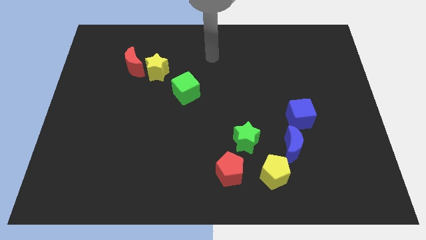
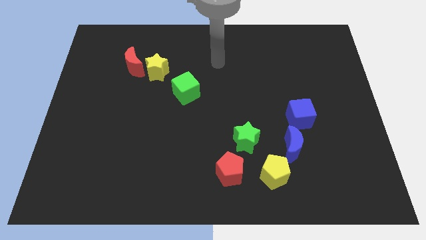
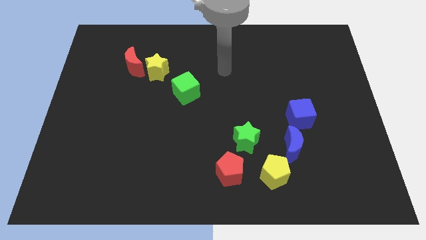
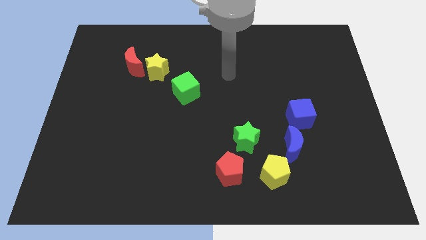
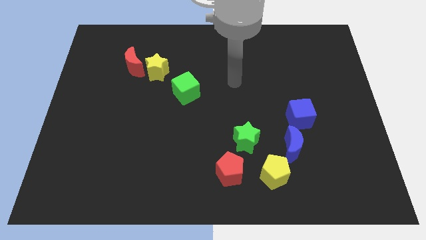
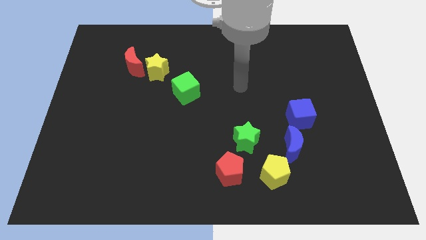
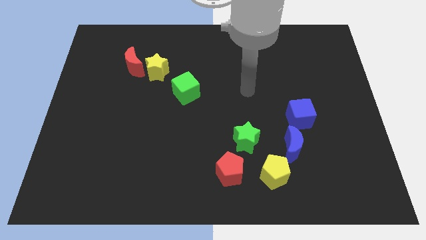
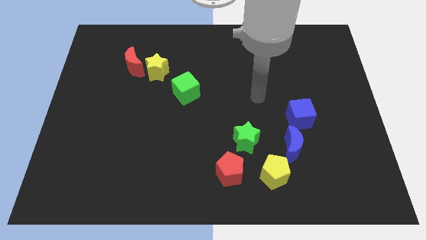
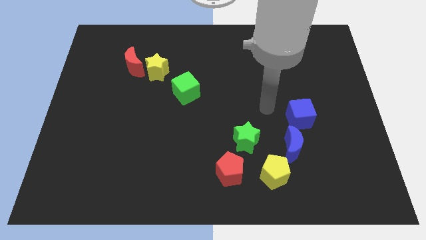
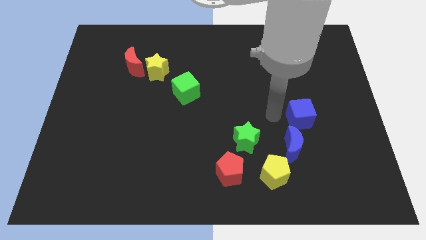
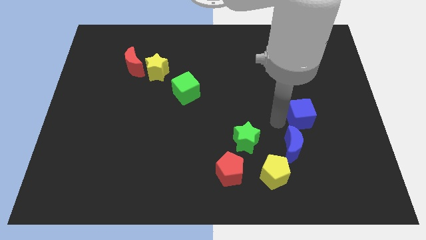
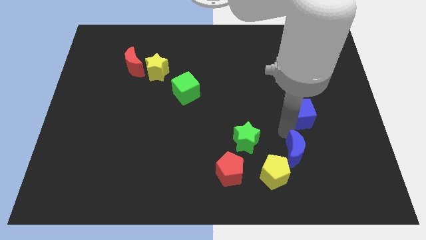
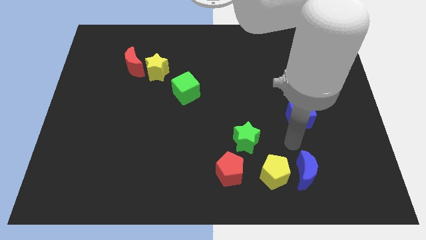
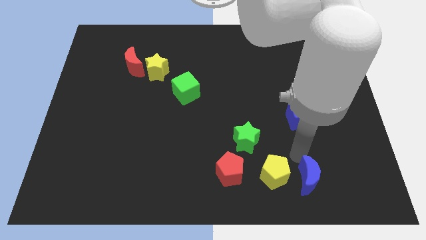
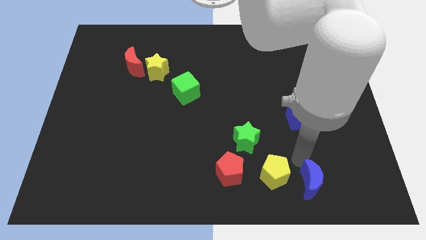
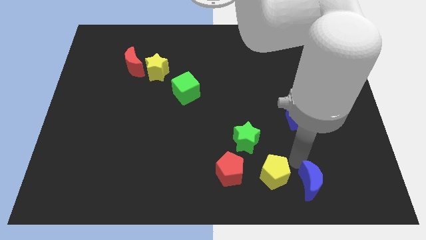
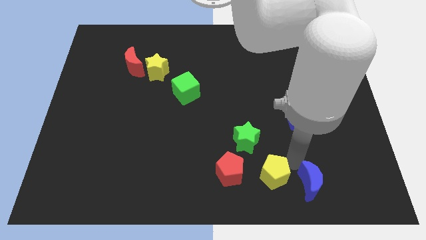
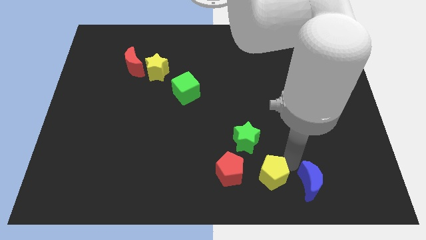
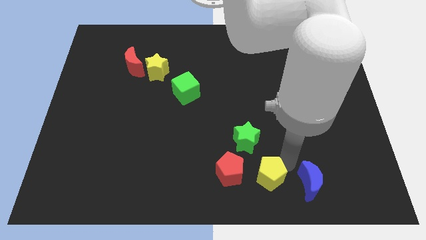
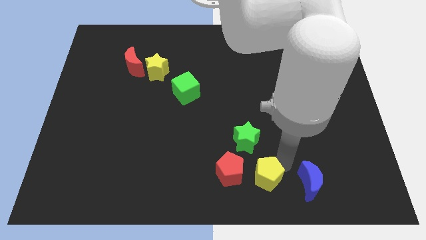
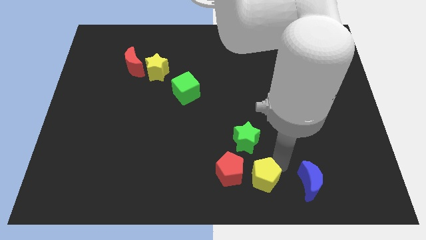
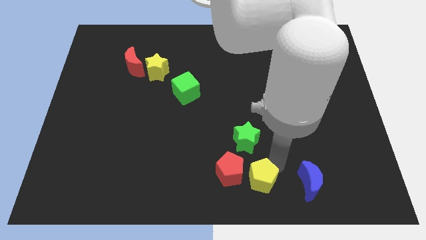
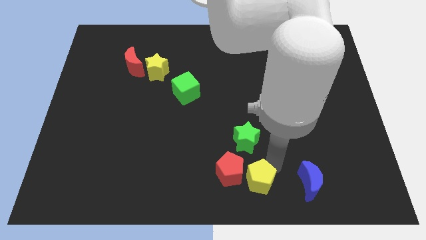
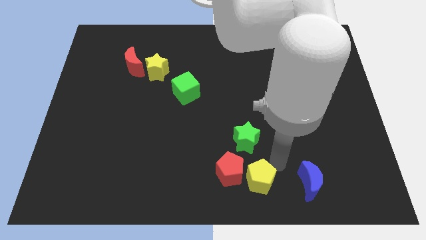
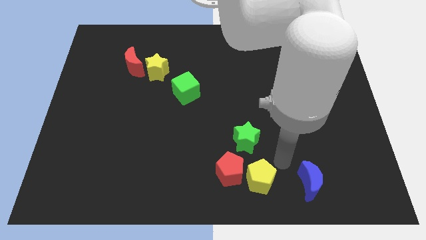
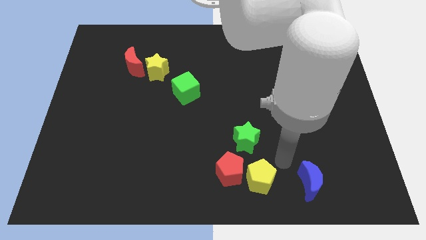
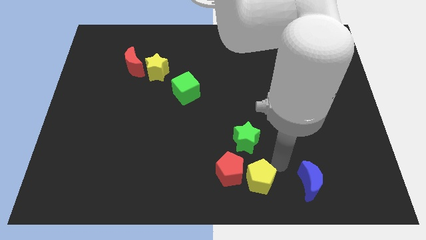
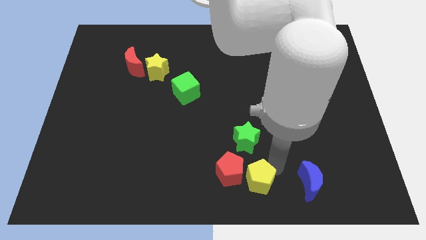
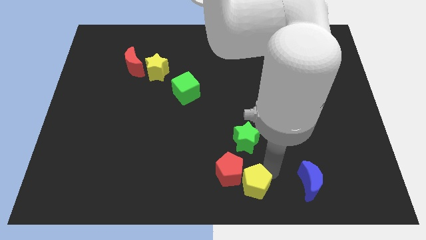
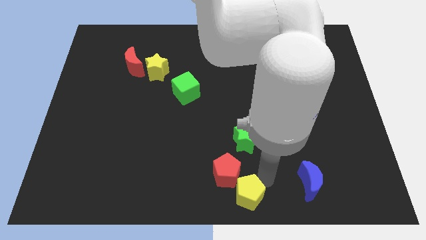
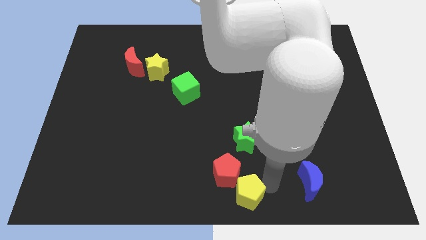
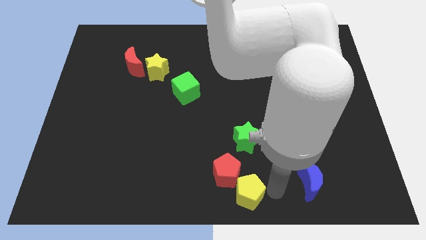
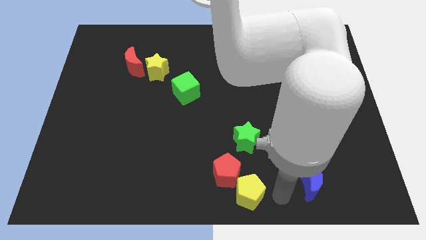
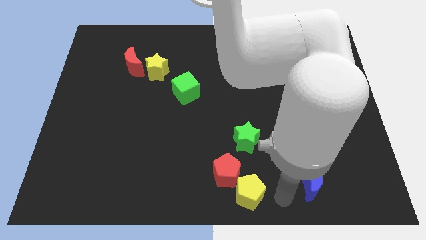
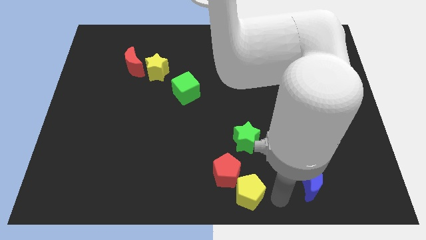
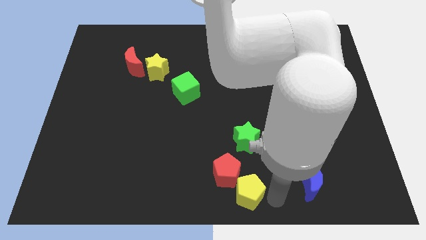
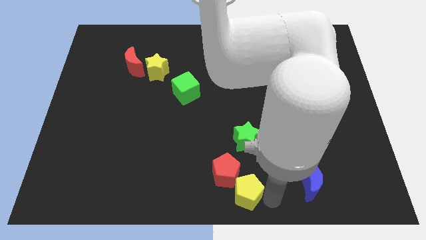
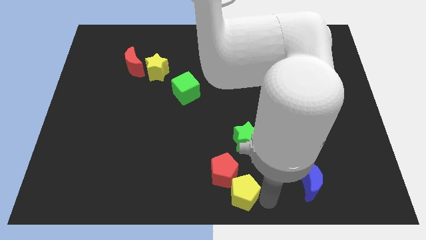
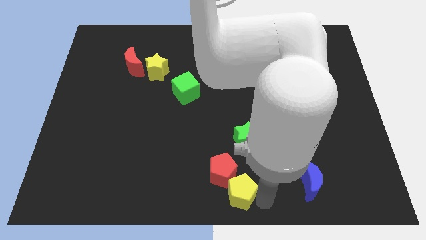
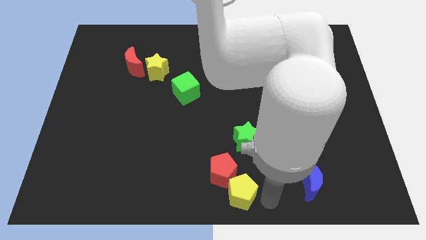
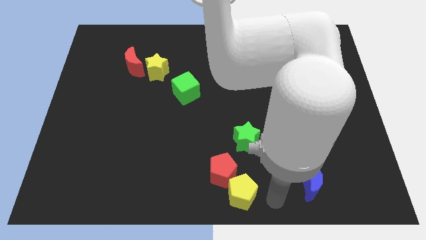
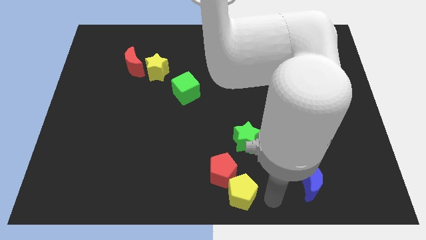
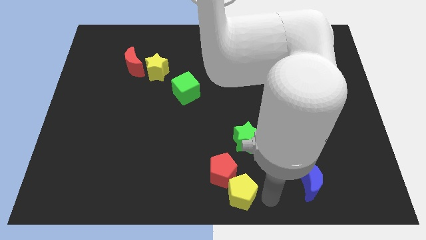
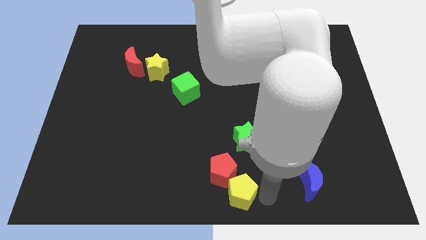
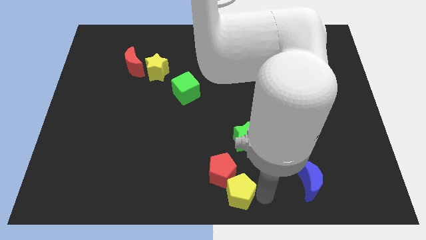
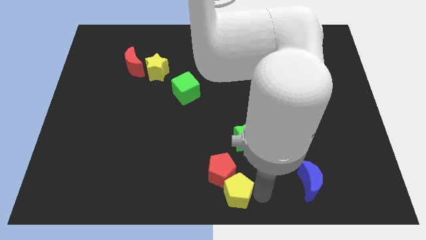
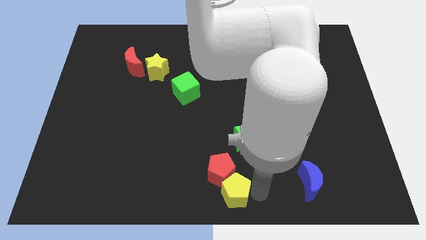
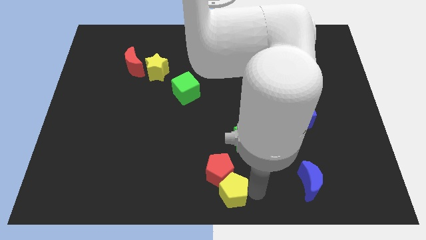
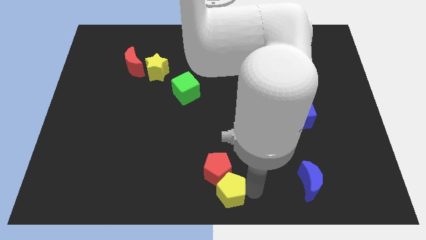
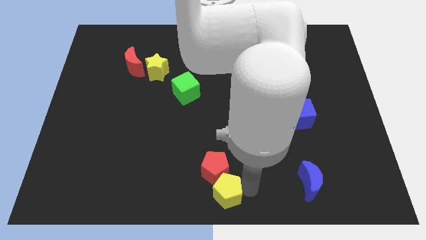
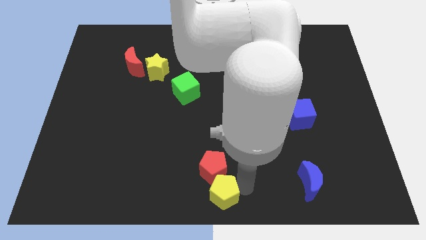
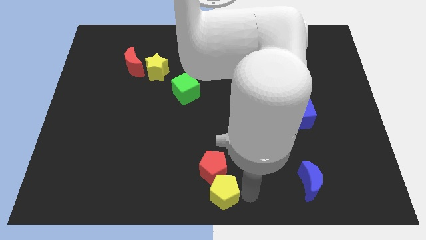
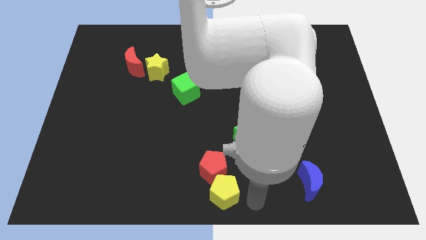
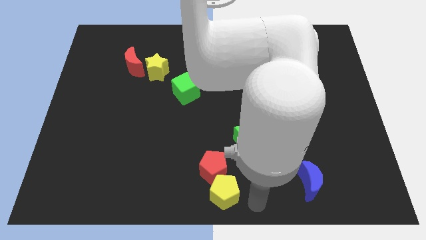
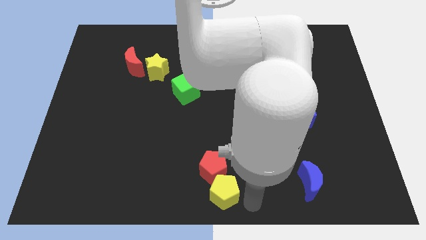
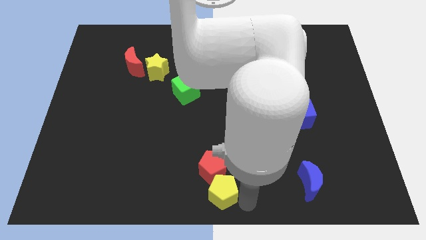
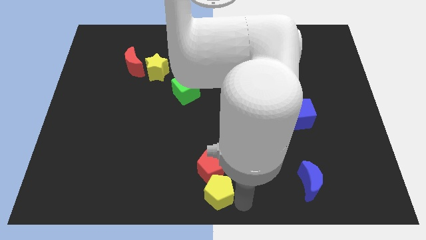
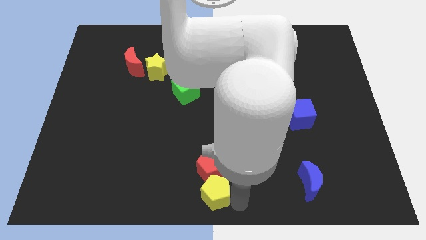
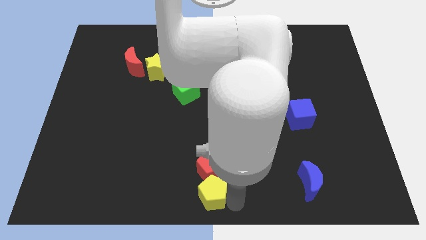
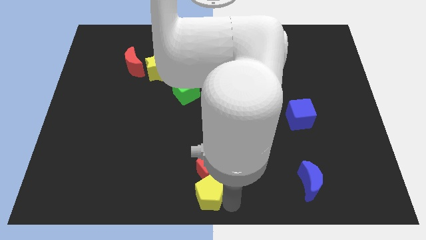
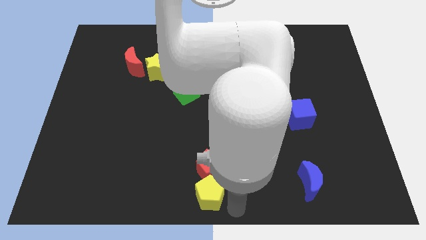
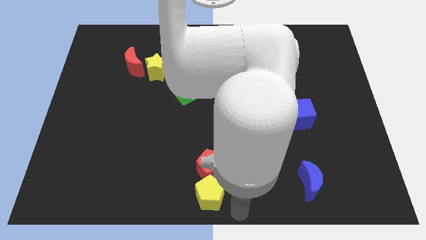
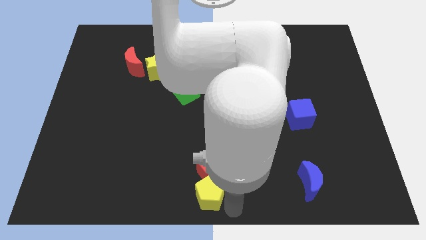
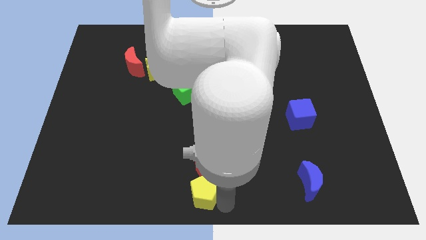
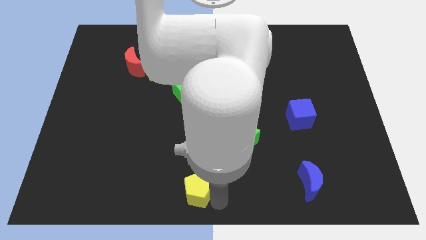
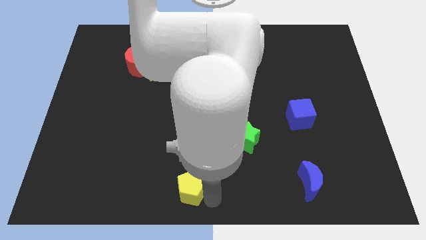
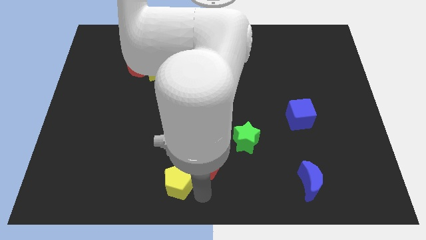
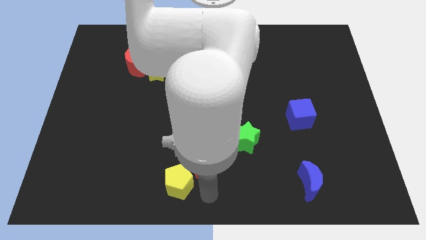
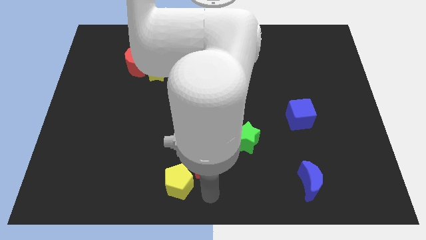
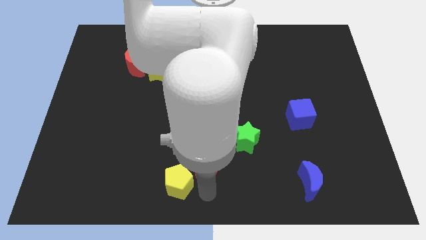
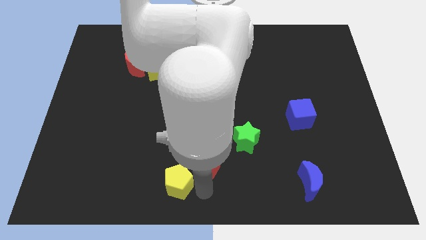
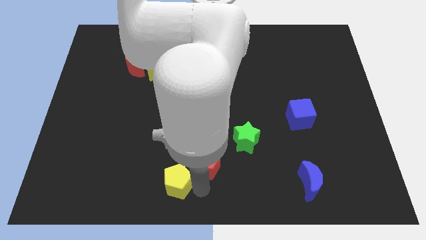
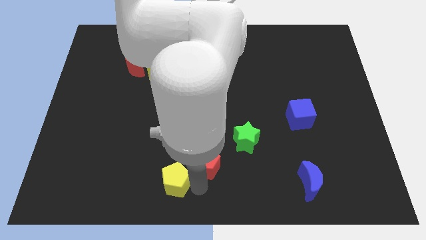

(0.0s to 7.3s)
push the yellow pentagon to the left

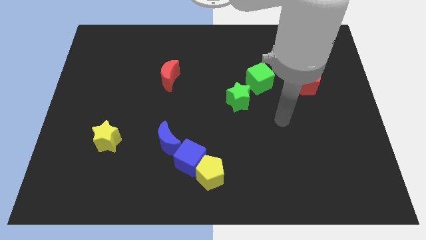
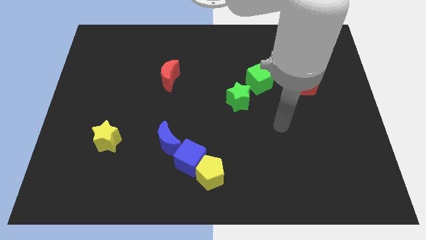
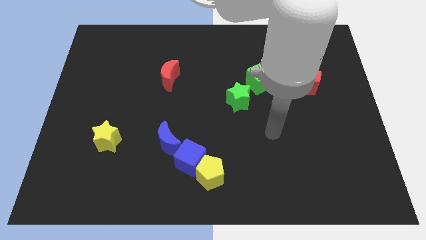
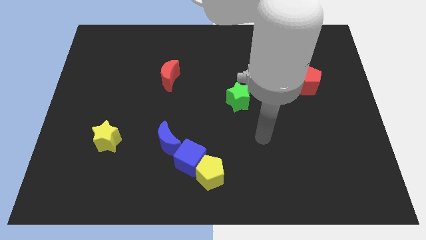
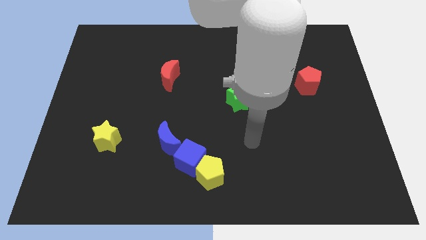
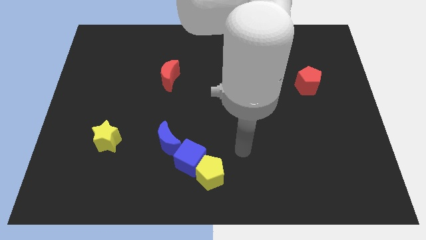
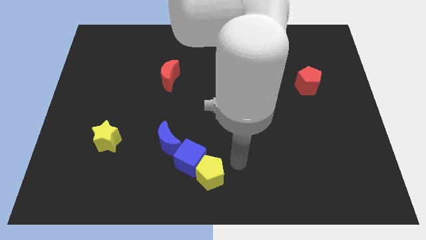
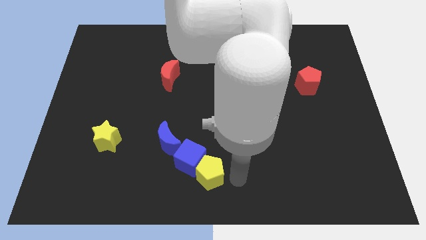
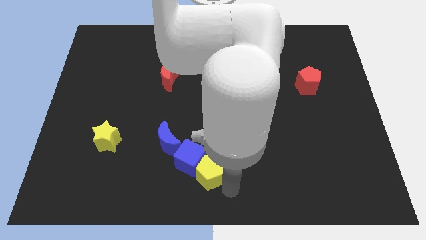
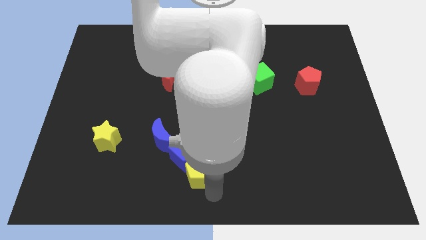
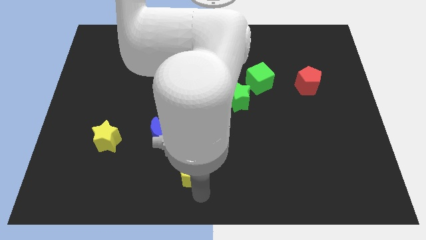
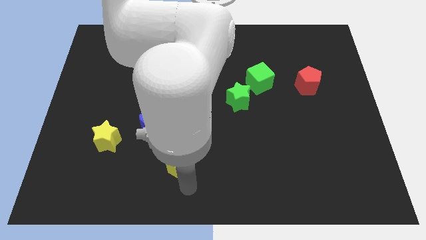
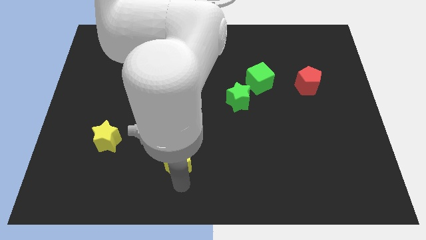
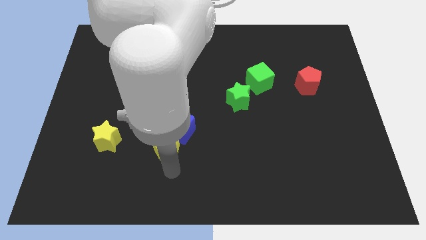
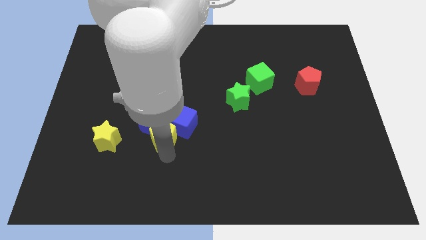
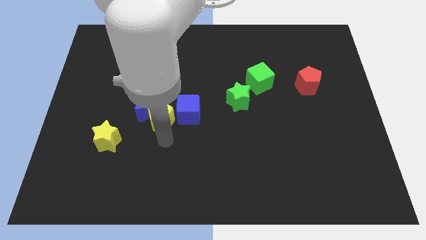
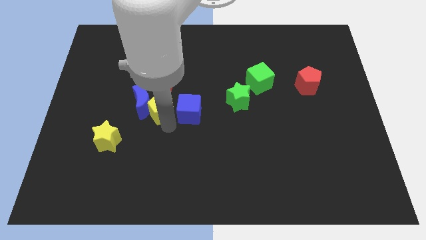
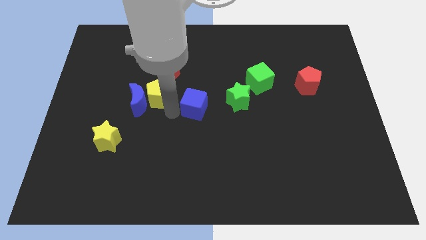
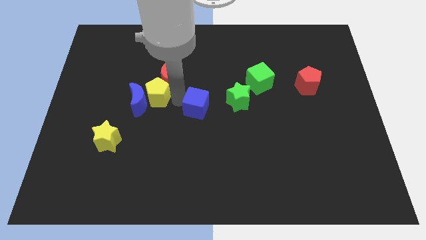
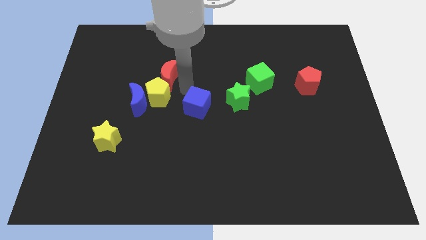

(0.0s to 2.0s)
push the blue cube somewhat upwards and then right
